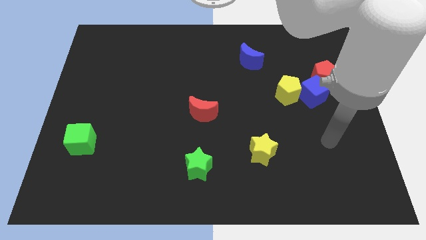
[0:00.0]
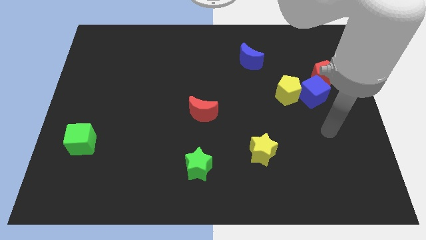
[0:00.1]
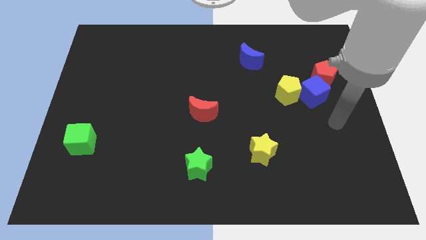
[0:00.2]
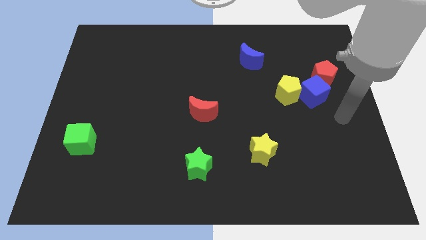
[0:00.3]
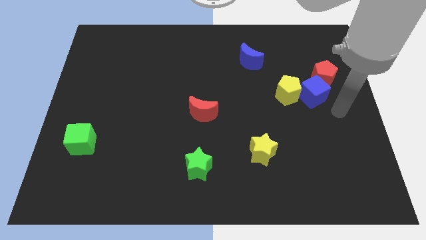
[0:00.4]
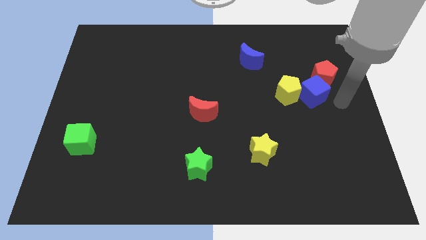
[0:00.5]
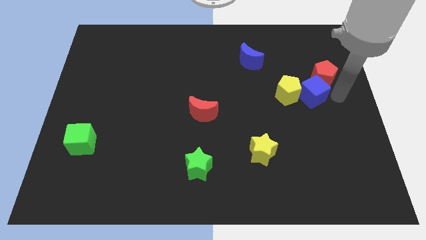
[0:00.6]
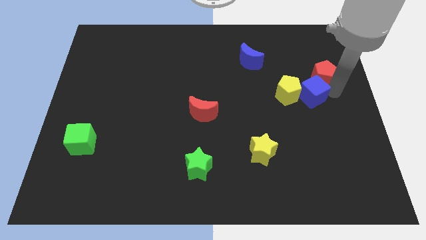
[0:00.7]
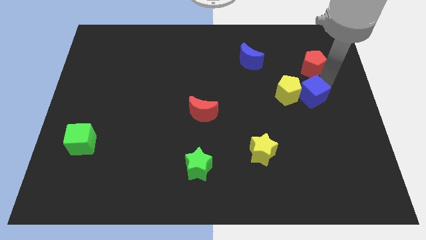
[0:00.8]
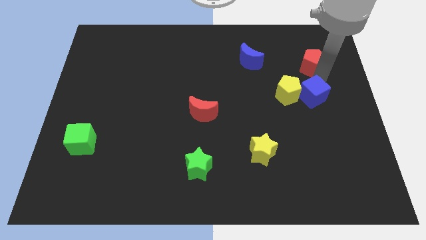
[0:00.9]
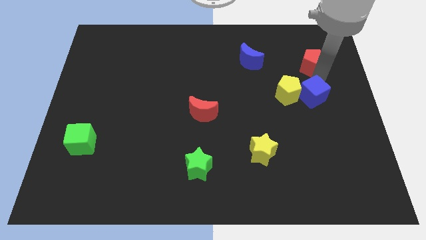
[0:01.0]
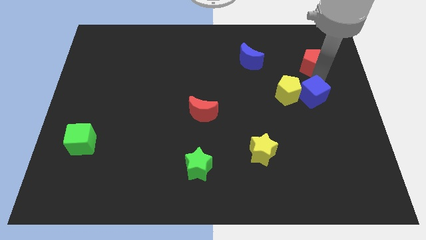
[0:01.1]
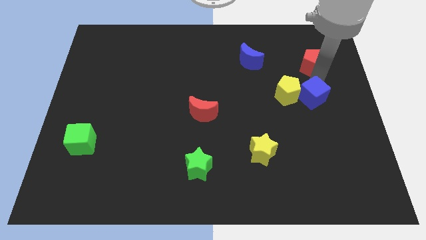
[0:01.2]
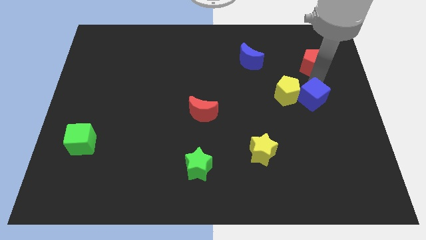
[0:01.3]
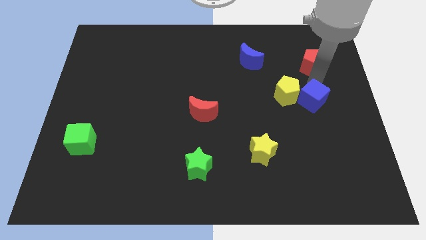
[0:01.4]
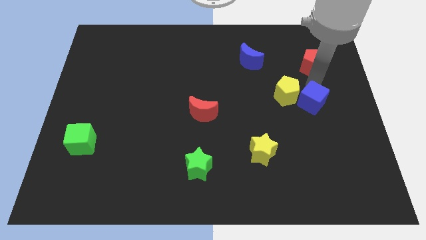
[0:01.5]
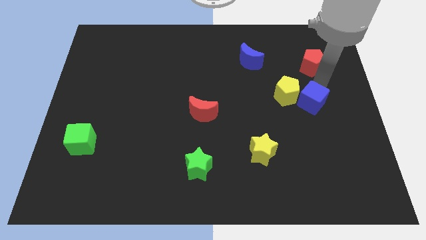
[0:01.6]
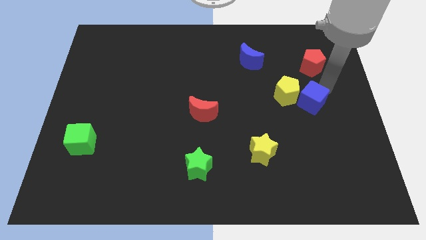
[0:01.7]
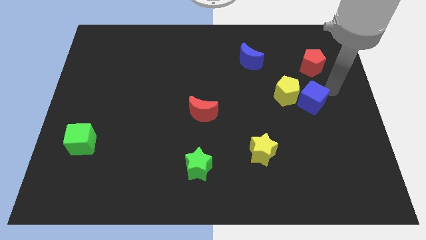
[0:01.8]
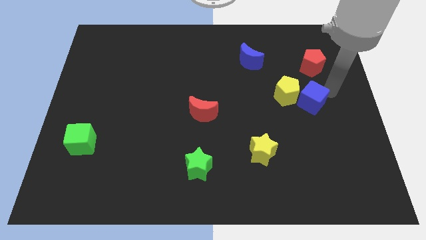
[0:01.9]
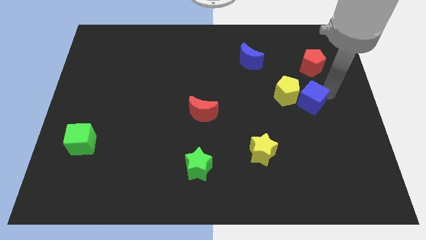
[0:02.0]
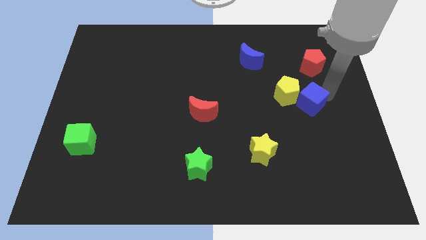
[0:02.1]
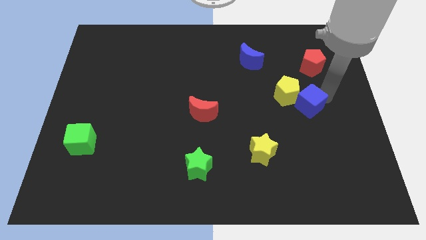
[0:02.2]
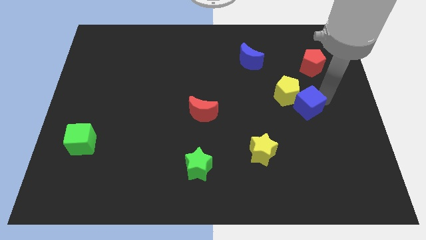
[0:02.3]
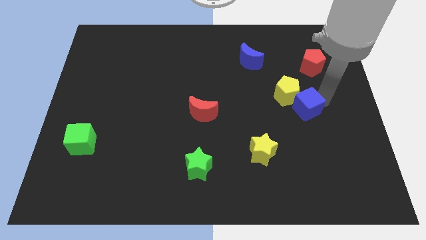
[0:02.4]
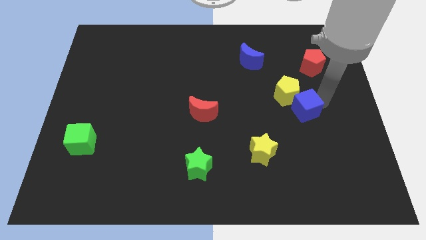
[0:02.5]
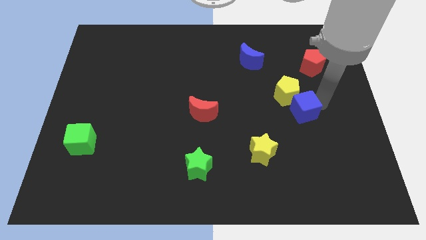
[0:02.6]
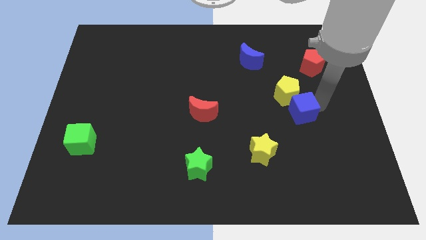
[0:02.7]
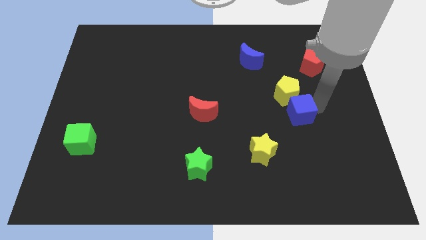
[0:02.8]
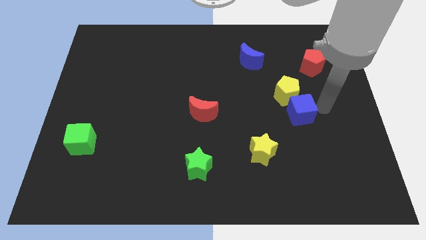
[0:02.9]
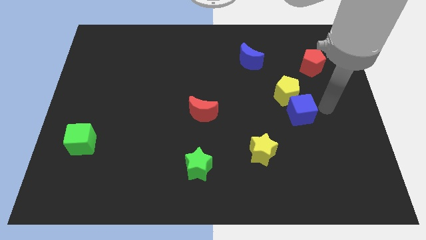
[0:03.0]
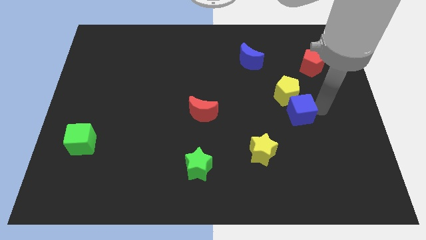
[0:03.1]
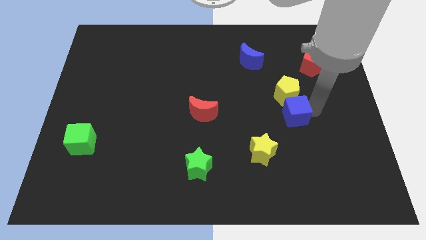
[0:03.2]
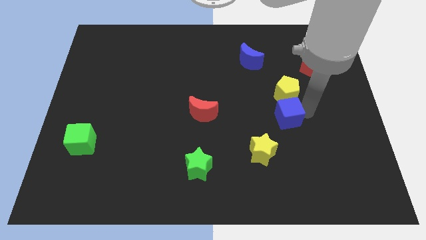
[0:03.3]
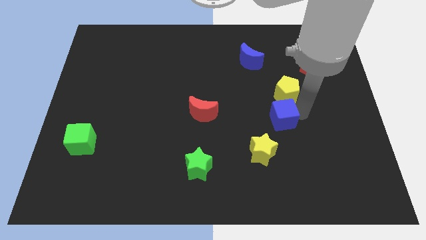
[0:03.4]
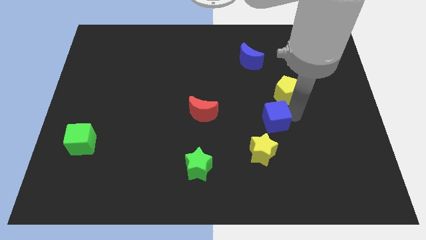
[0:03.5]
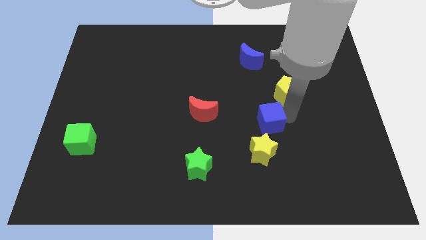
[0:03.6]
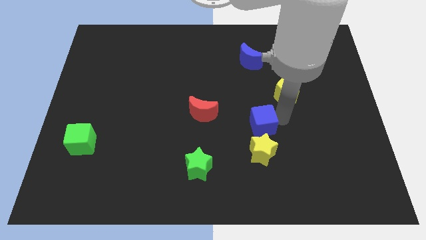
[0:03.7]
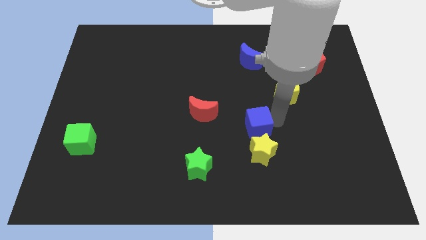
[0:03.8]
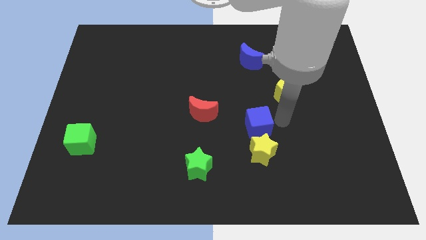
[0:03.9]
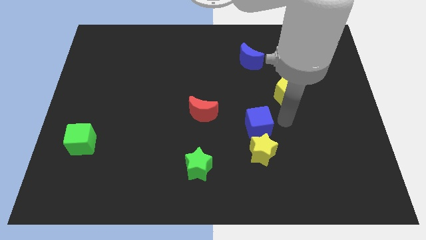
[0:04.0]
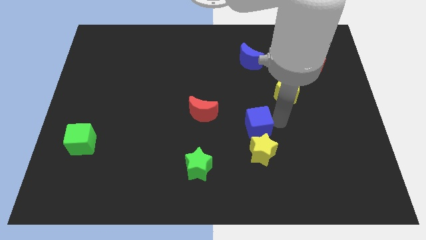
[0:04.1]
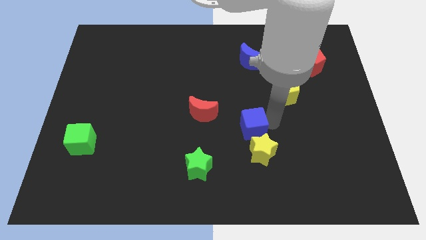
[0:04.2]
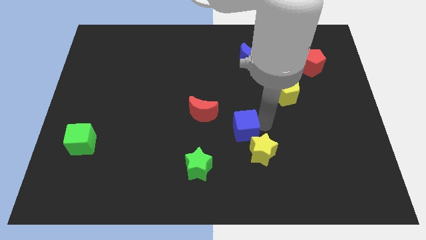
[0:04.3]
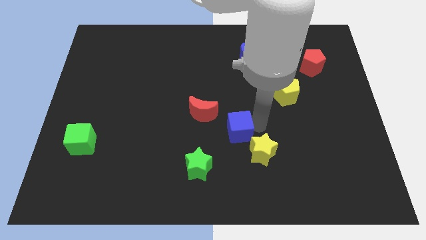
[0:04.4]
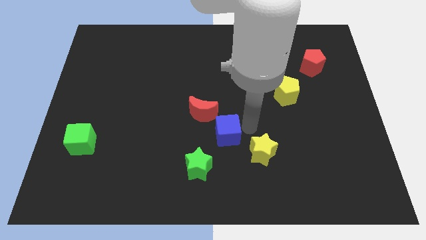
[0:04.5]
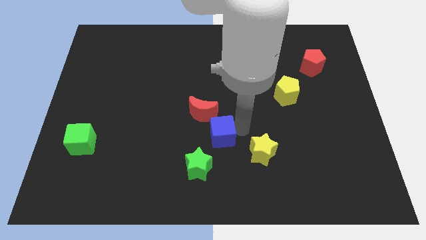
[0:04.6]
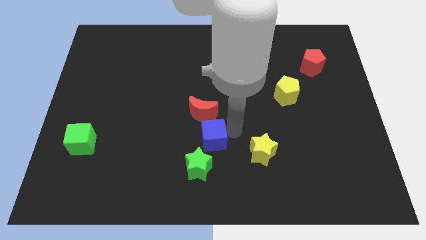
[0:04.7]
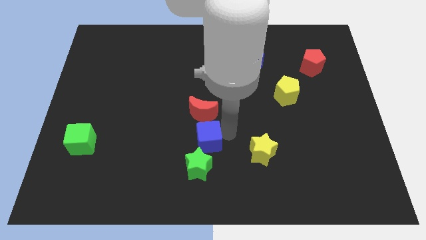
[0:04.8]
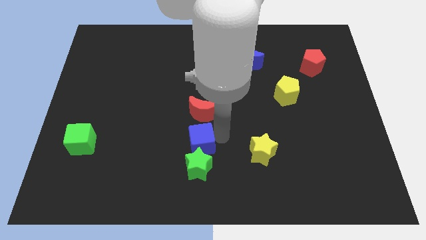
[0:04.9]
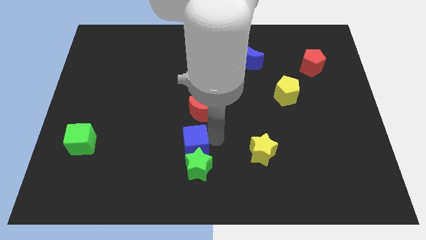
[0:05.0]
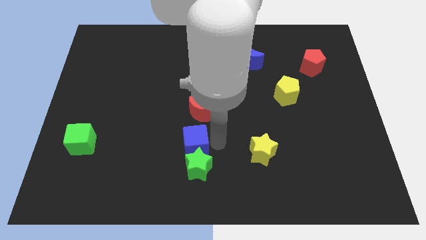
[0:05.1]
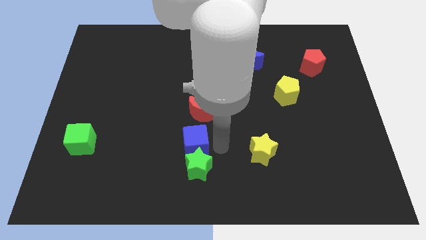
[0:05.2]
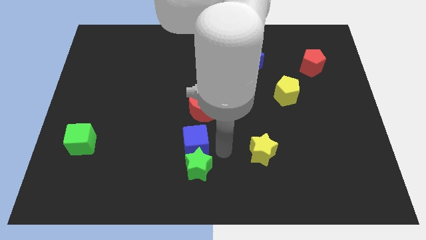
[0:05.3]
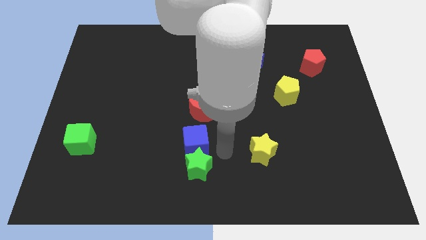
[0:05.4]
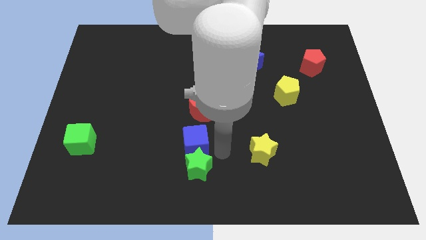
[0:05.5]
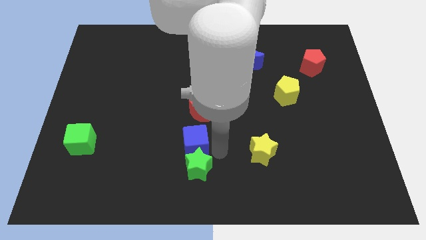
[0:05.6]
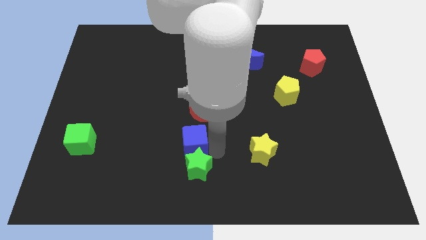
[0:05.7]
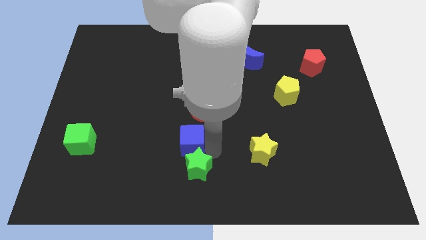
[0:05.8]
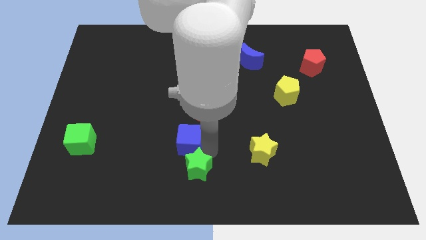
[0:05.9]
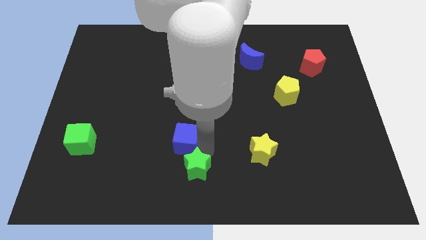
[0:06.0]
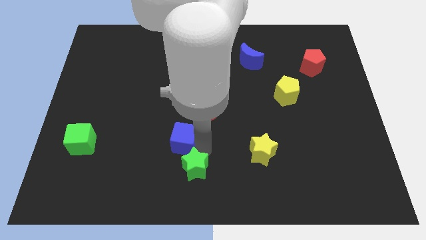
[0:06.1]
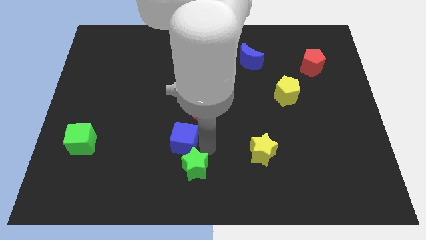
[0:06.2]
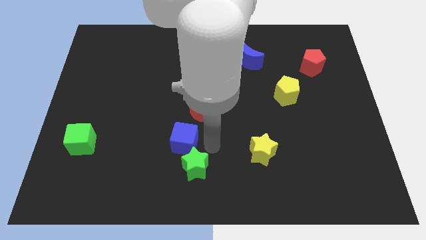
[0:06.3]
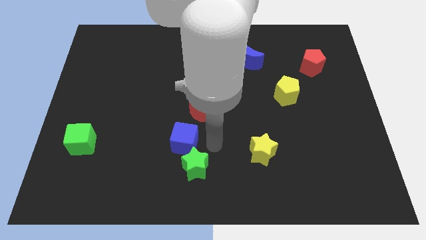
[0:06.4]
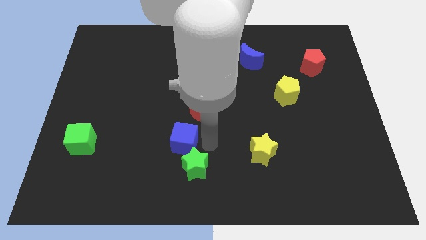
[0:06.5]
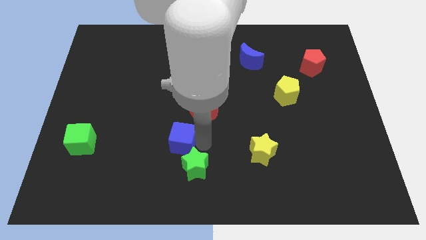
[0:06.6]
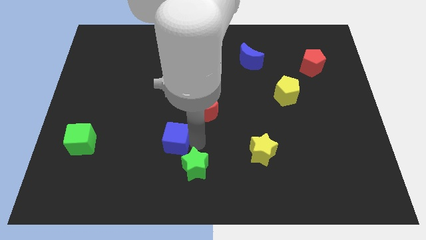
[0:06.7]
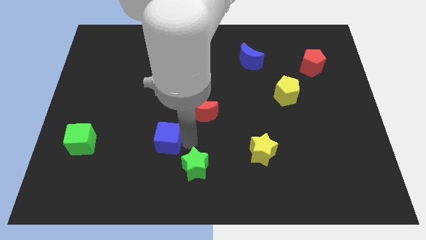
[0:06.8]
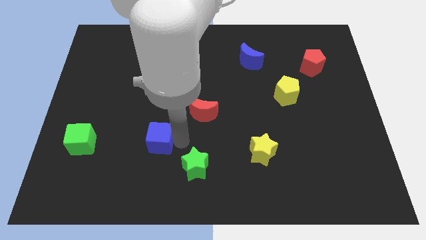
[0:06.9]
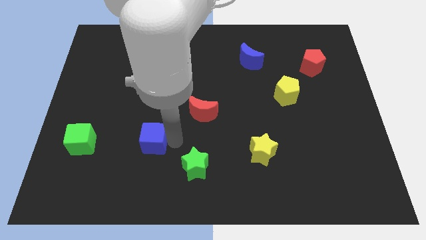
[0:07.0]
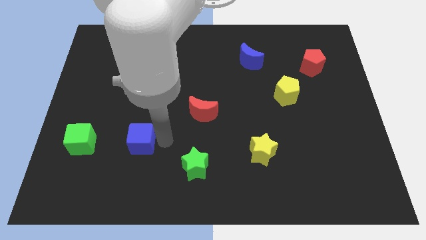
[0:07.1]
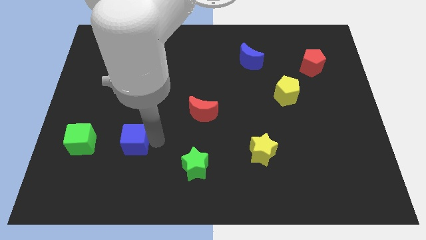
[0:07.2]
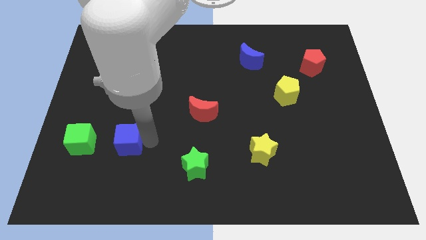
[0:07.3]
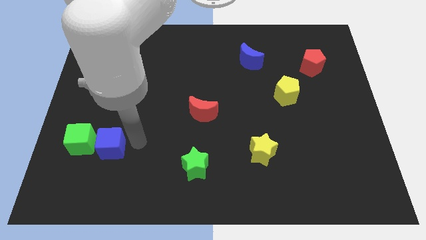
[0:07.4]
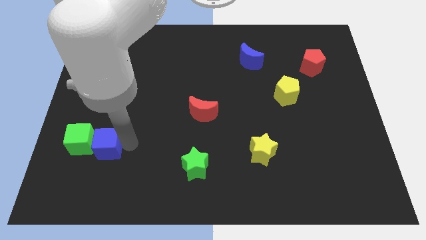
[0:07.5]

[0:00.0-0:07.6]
push the blue cube next to the green cube
